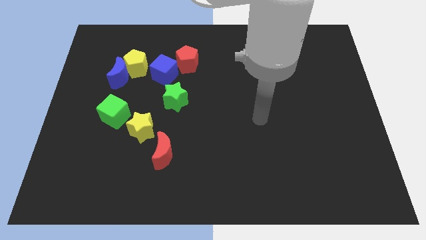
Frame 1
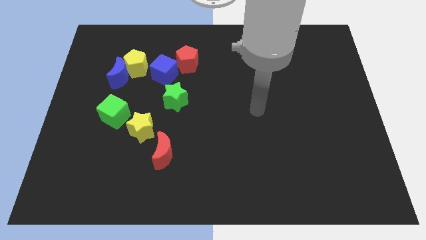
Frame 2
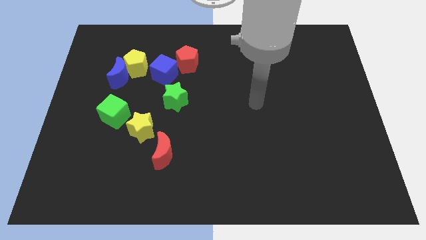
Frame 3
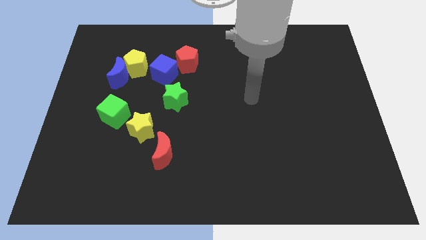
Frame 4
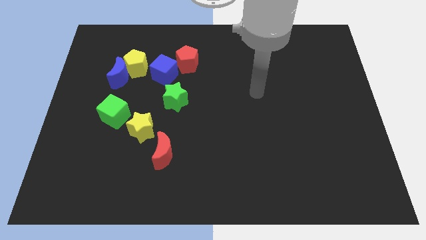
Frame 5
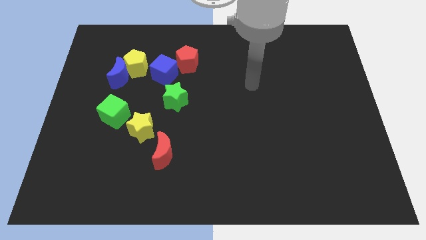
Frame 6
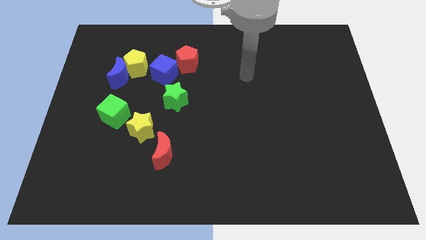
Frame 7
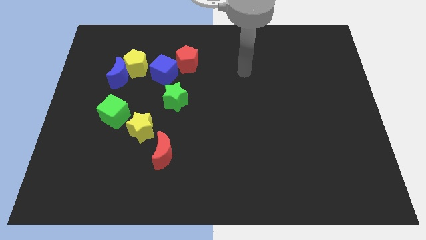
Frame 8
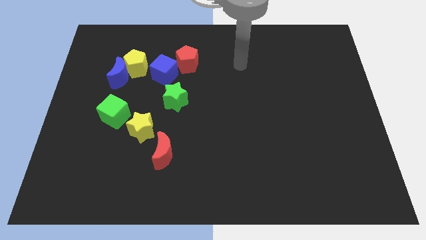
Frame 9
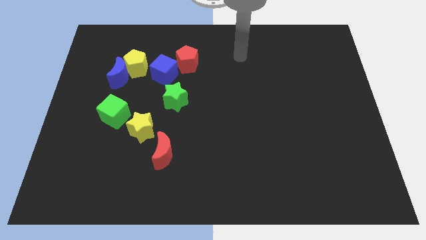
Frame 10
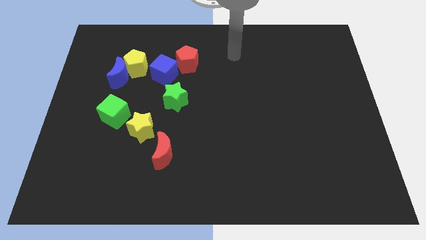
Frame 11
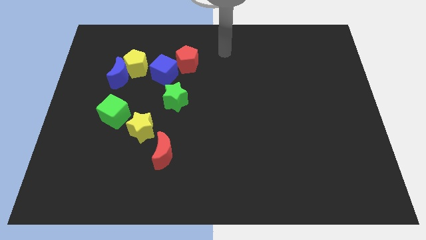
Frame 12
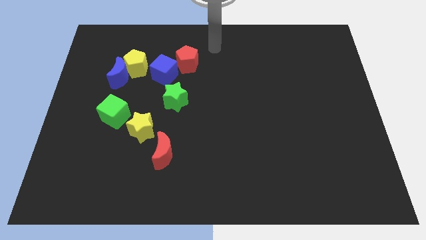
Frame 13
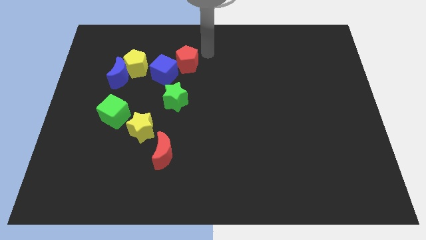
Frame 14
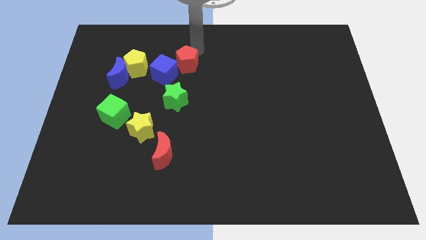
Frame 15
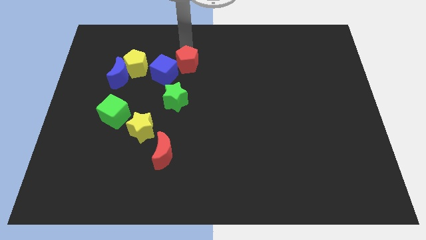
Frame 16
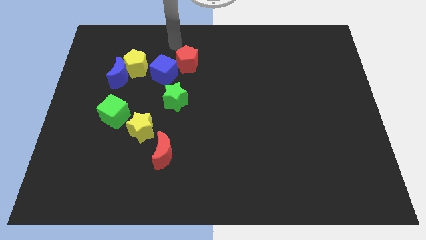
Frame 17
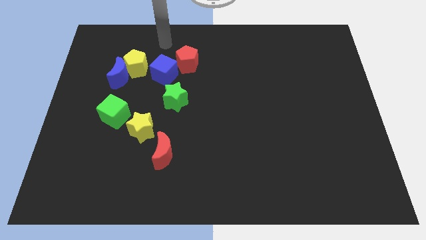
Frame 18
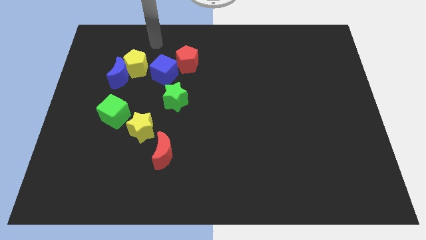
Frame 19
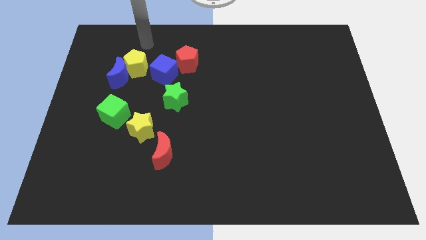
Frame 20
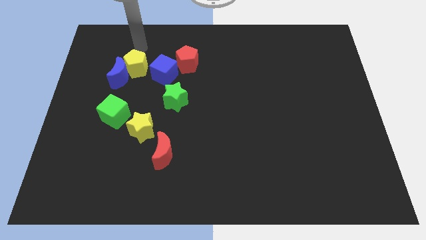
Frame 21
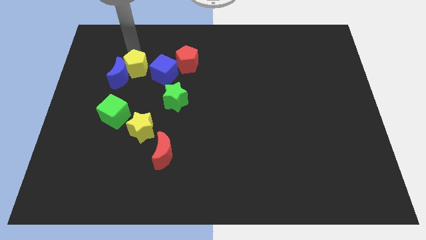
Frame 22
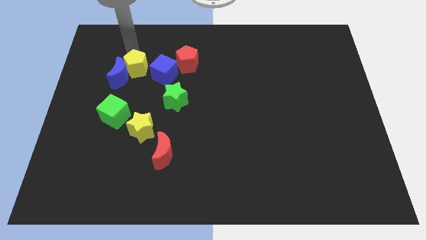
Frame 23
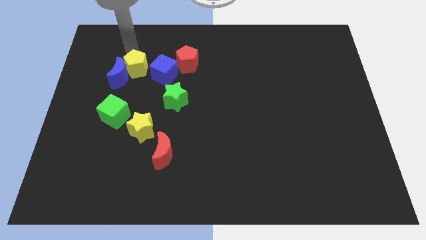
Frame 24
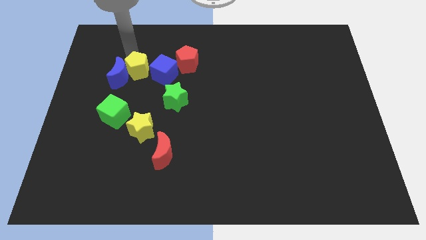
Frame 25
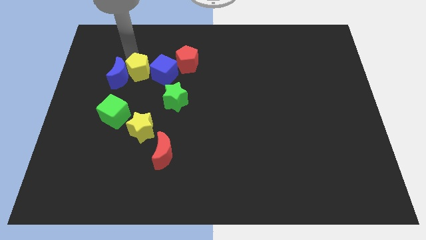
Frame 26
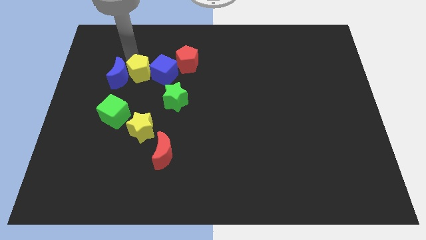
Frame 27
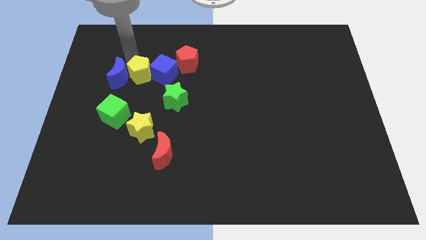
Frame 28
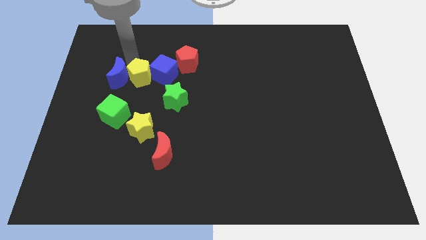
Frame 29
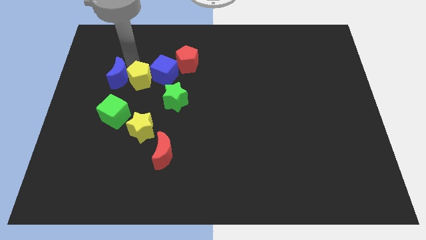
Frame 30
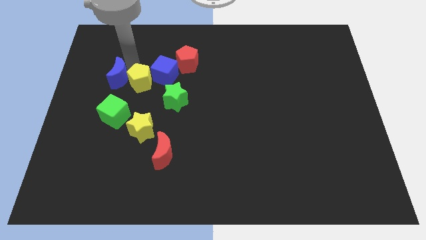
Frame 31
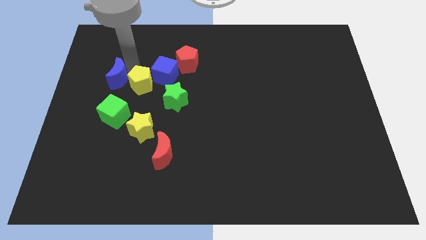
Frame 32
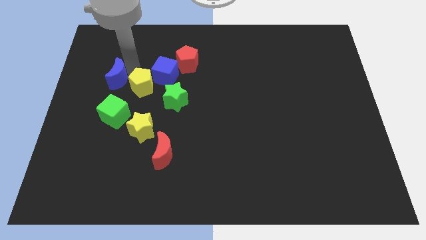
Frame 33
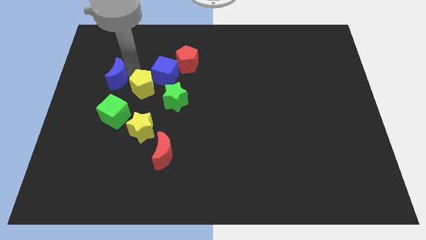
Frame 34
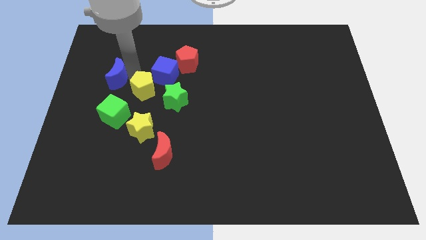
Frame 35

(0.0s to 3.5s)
slightly slide the yellow pentagon downwards and to the right

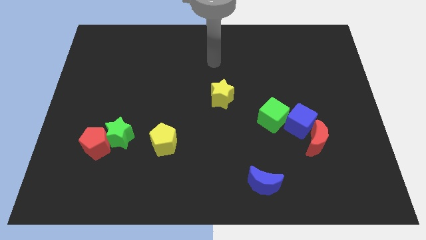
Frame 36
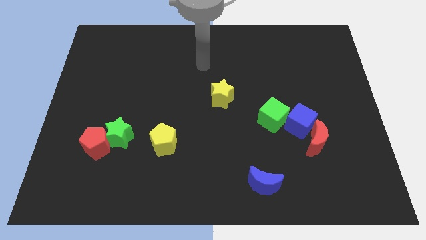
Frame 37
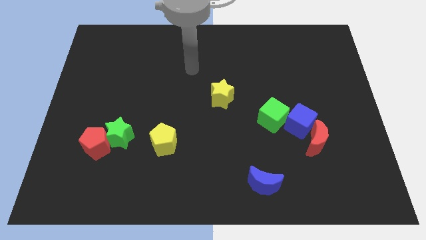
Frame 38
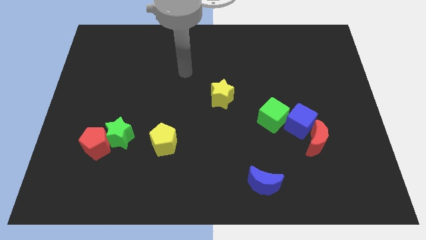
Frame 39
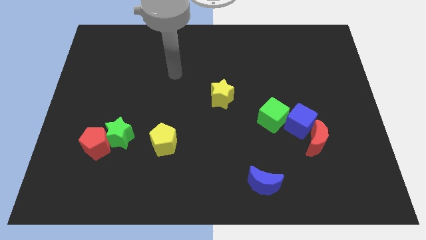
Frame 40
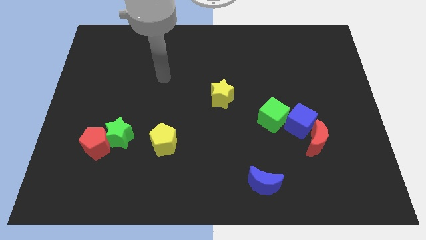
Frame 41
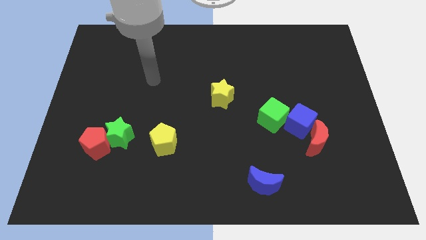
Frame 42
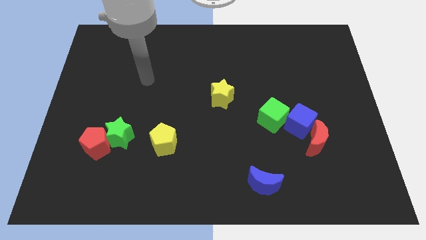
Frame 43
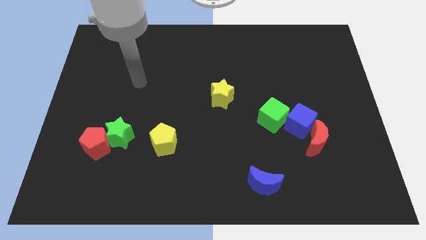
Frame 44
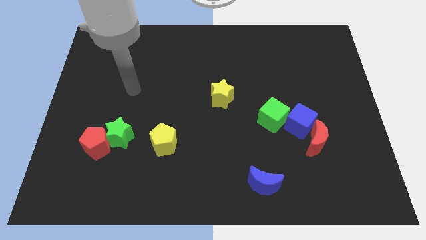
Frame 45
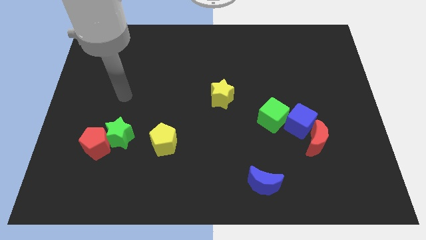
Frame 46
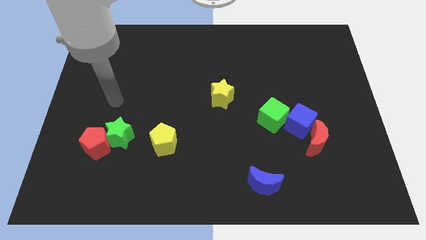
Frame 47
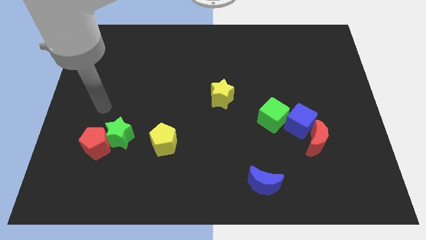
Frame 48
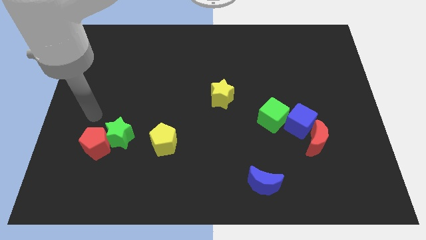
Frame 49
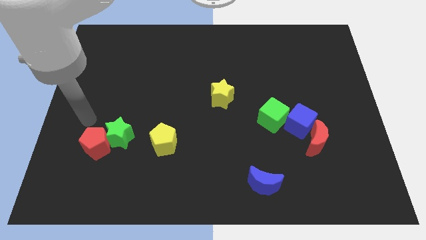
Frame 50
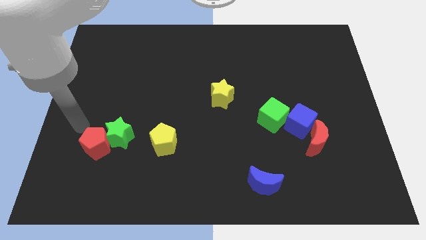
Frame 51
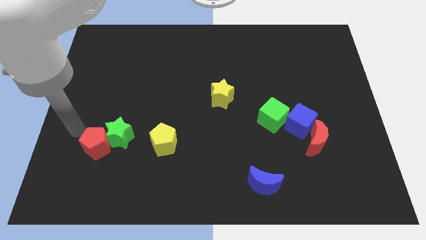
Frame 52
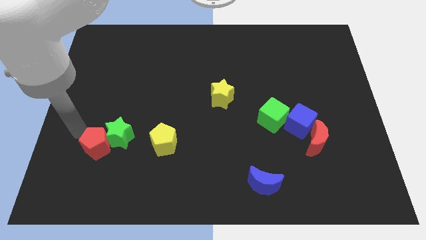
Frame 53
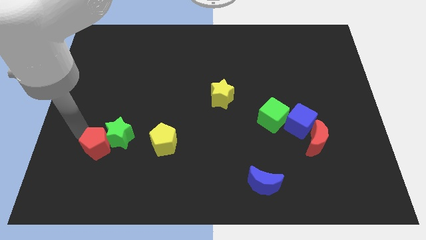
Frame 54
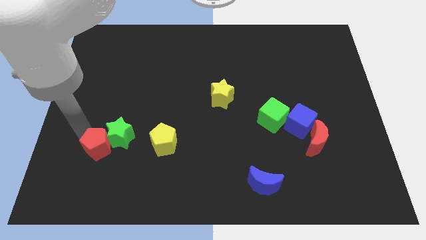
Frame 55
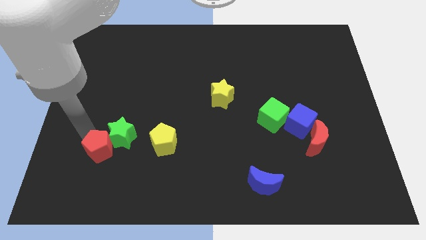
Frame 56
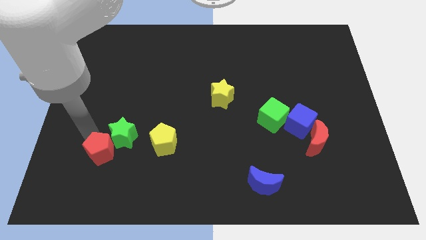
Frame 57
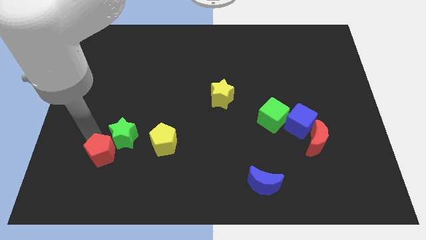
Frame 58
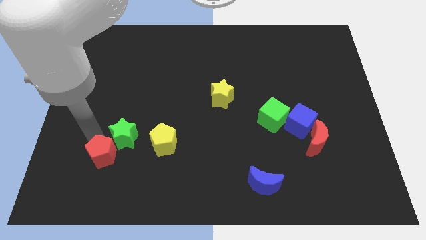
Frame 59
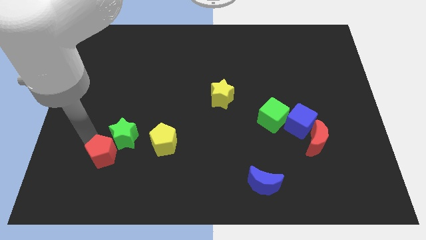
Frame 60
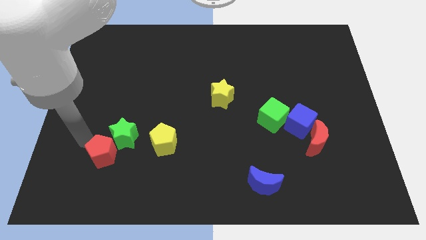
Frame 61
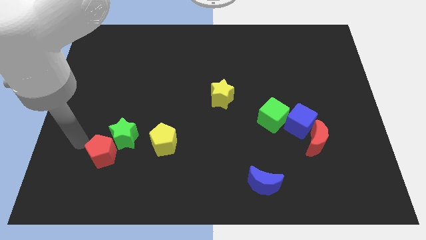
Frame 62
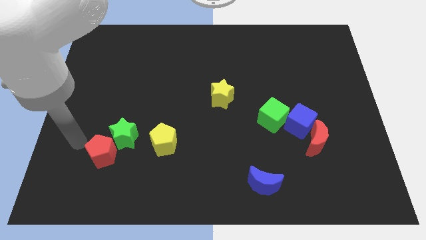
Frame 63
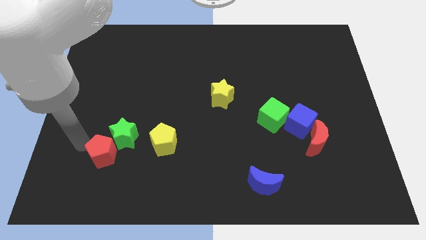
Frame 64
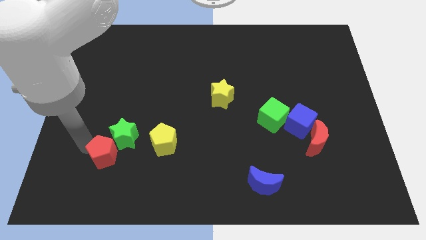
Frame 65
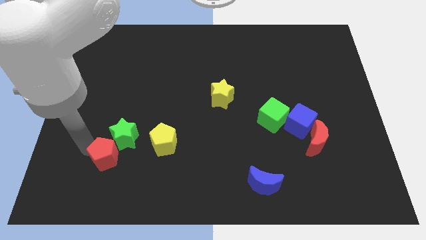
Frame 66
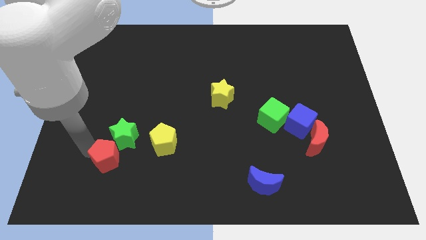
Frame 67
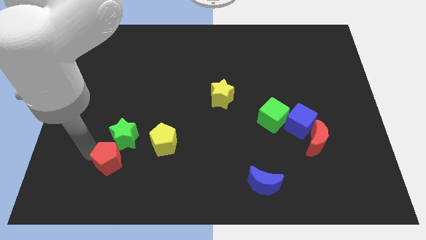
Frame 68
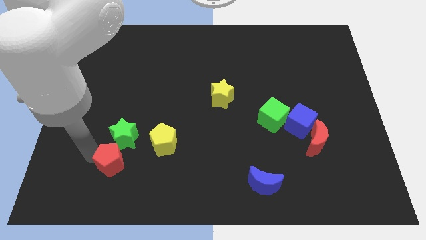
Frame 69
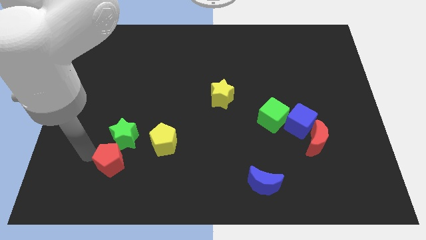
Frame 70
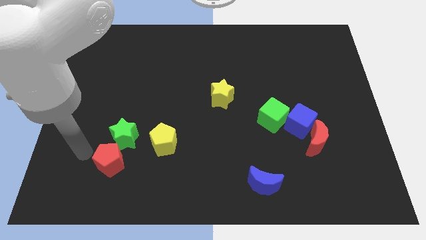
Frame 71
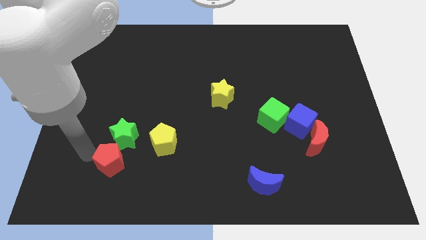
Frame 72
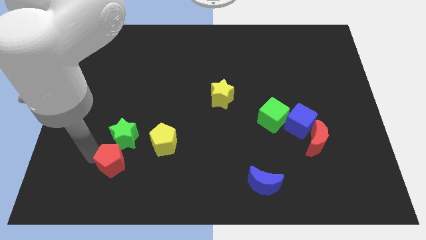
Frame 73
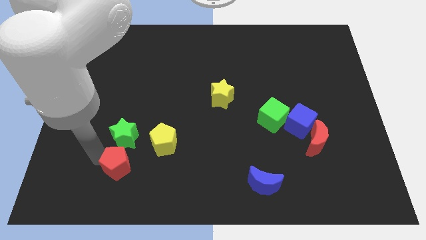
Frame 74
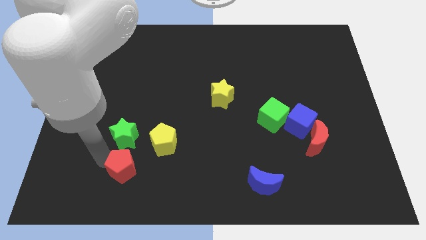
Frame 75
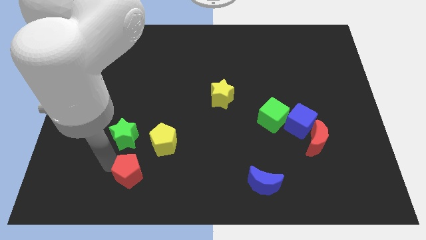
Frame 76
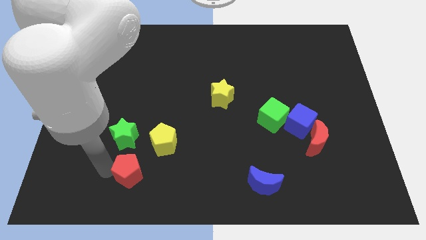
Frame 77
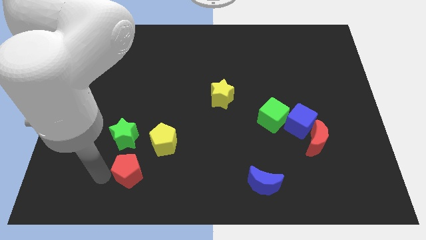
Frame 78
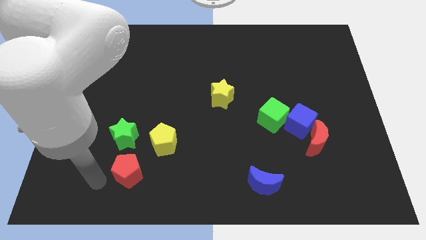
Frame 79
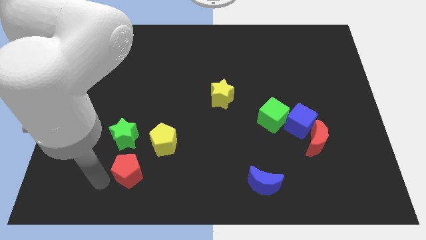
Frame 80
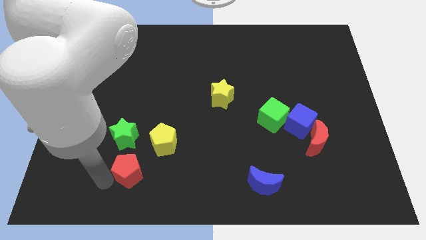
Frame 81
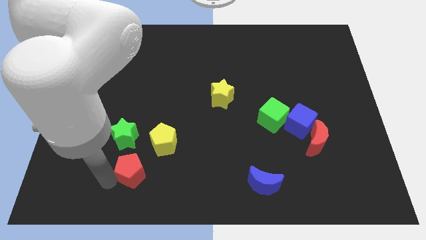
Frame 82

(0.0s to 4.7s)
slightly push the red pentagon to the right
